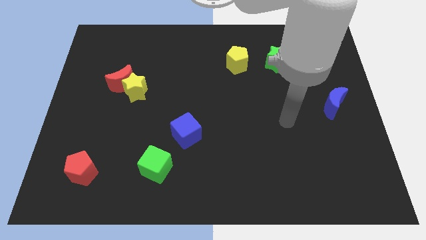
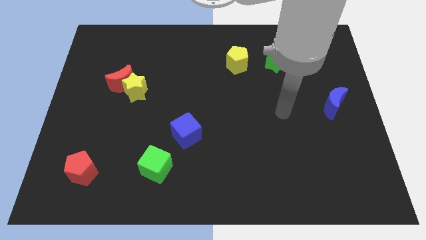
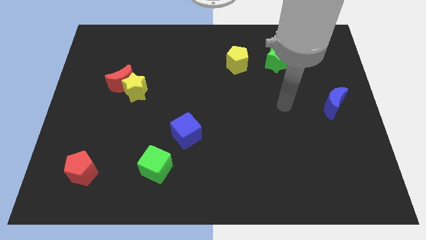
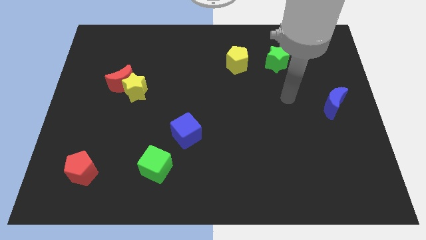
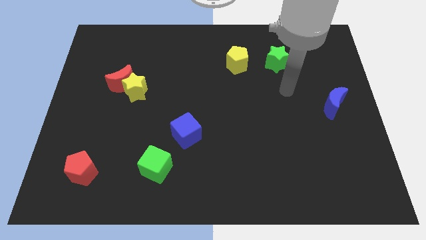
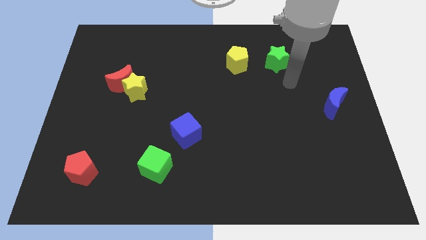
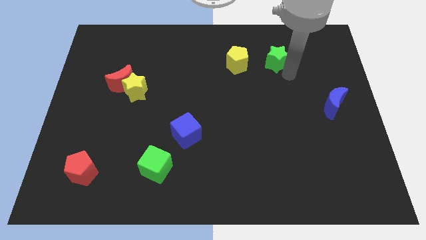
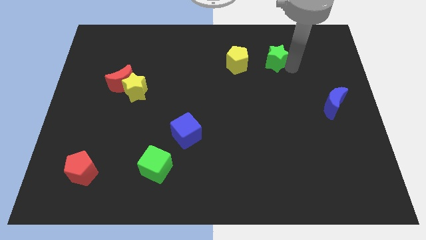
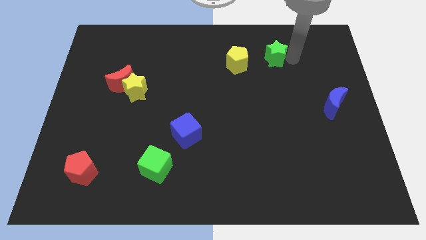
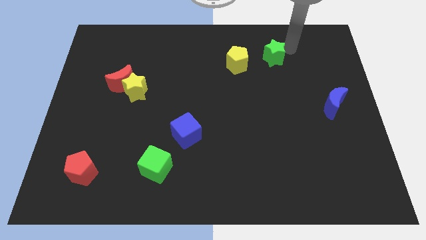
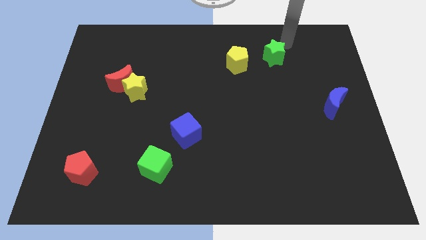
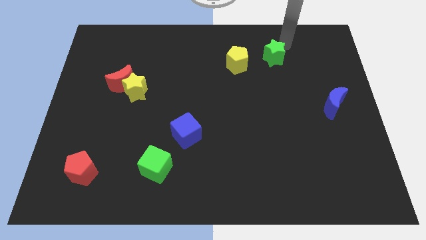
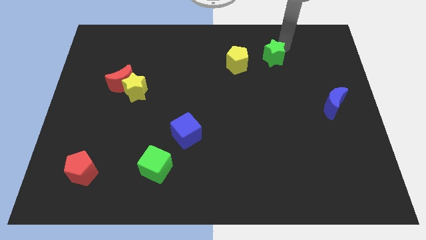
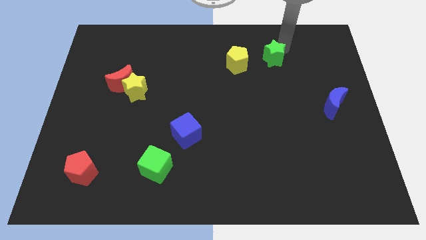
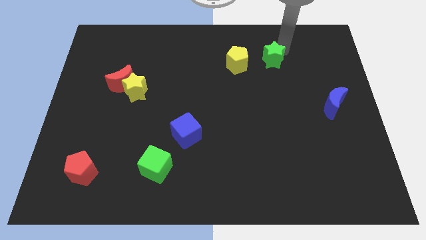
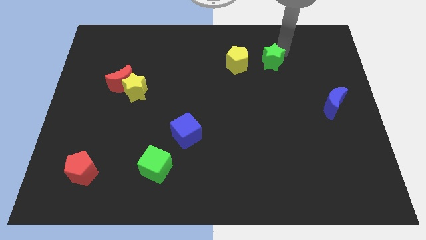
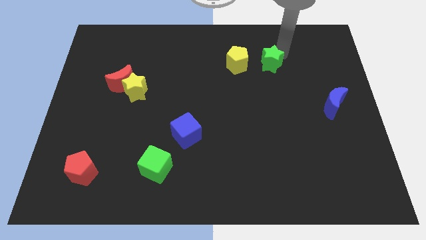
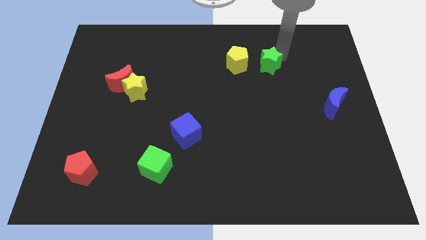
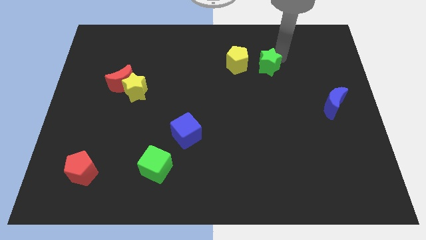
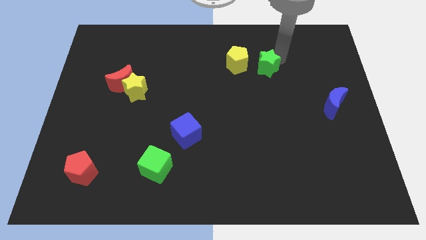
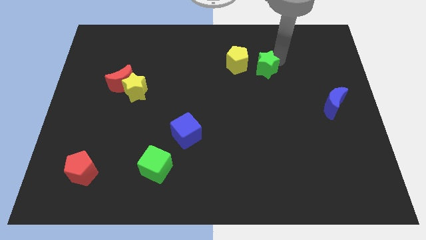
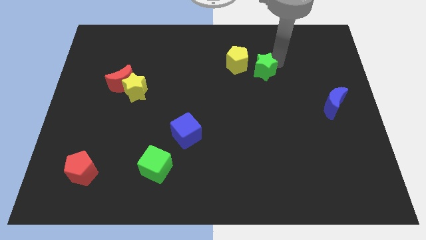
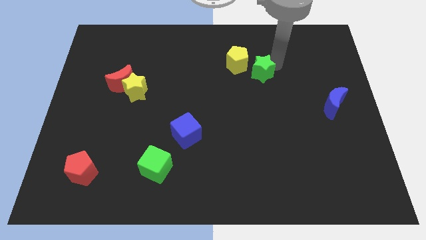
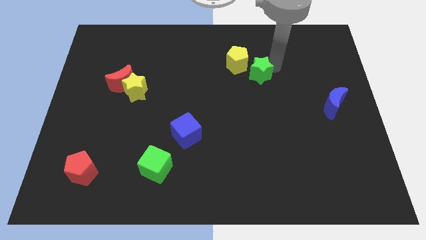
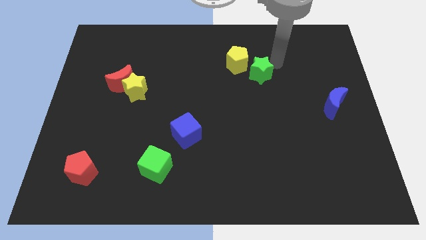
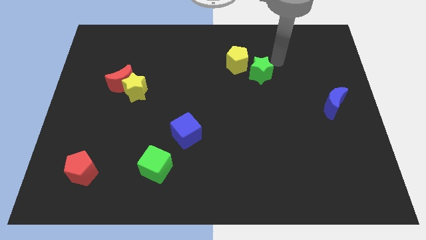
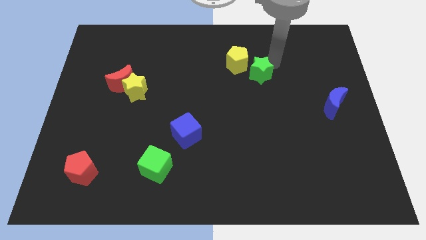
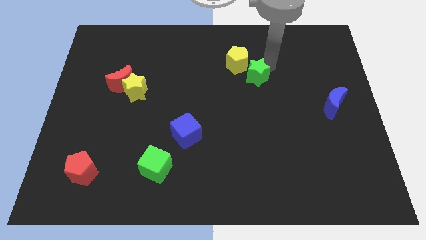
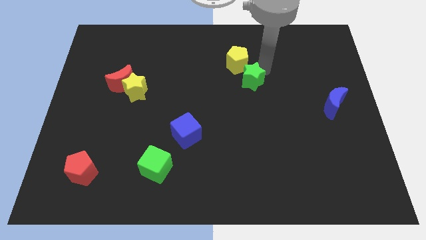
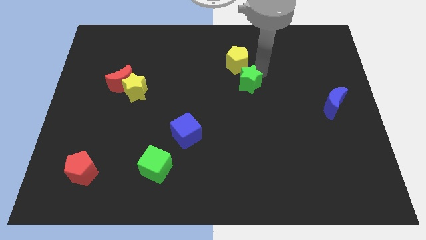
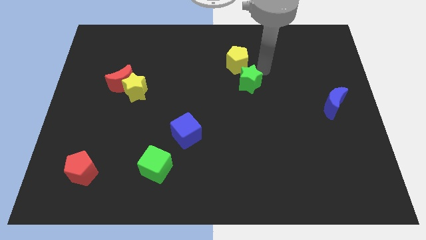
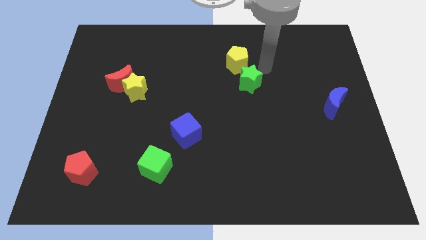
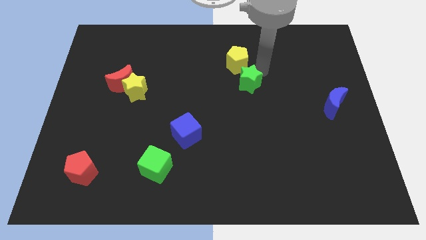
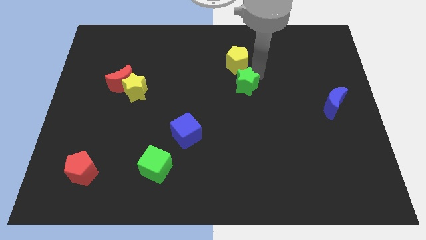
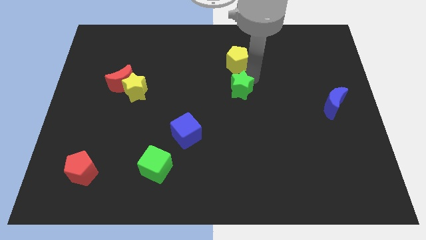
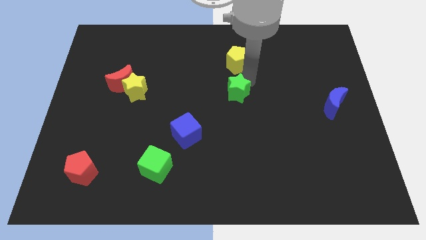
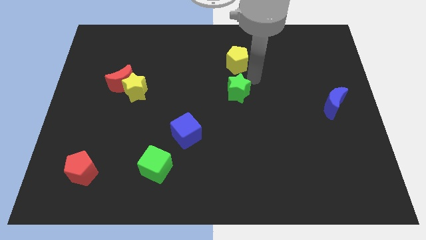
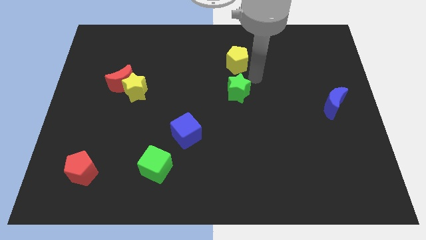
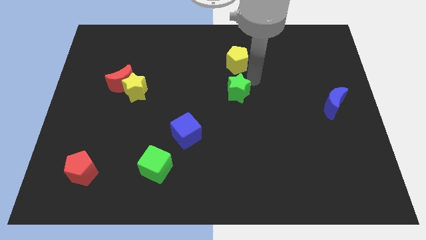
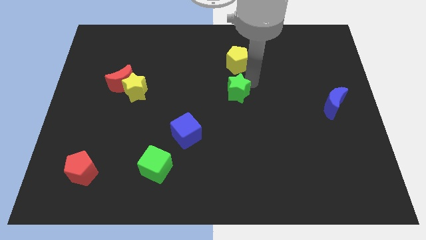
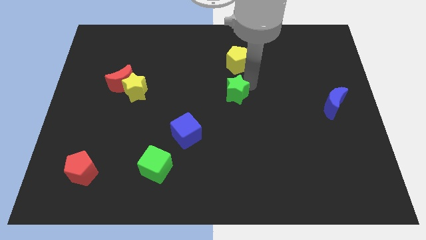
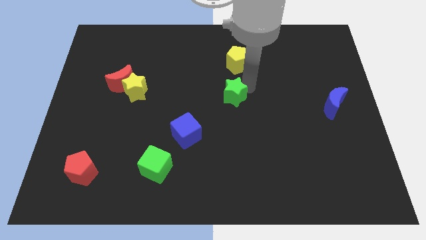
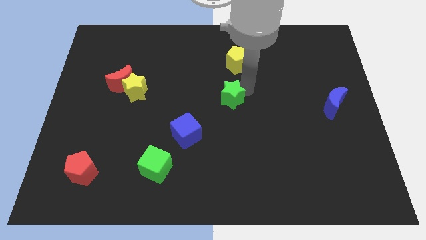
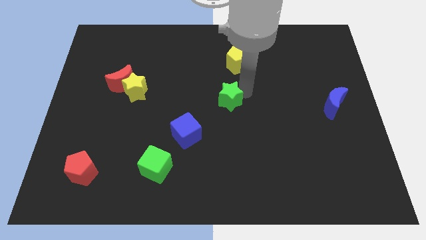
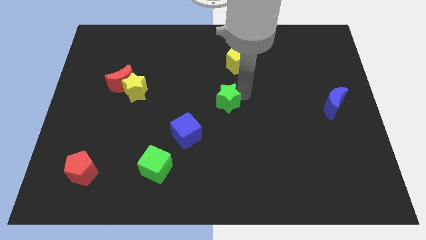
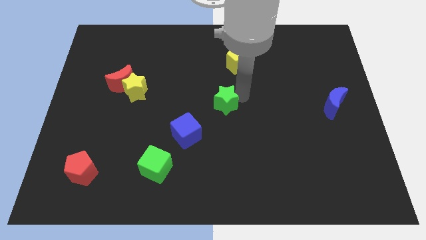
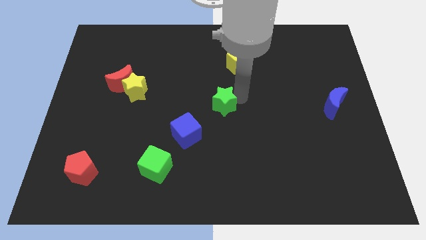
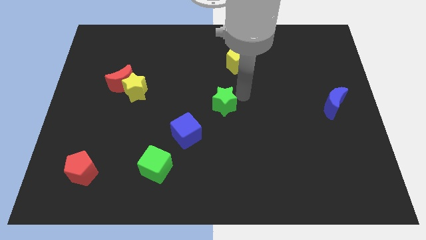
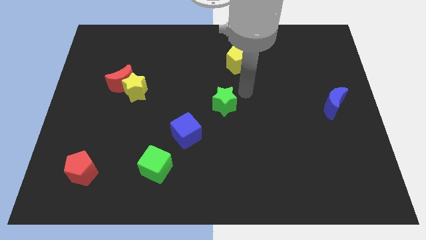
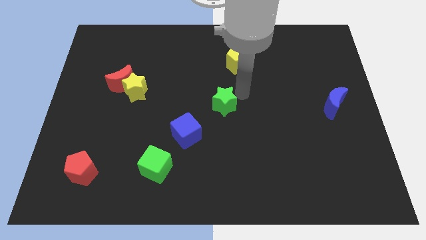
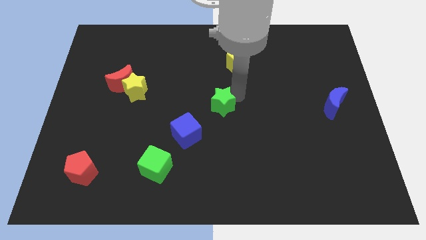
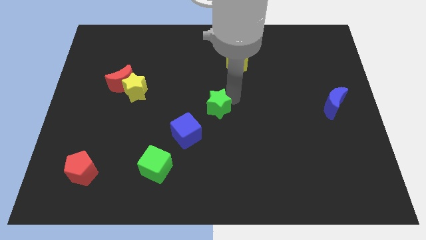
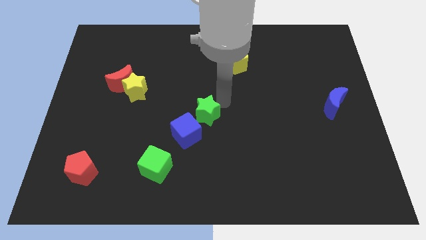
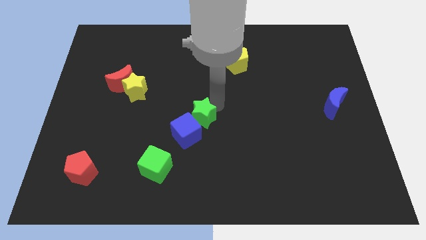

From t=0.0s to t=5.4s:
push the green star next to the blue cube

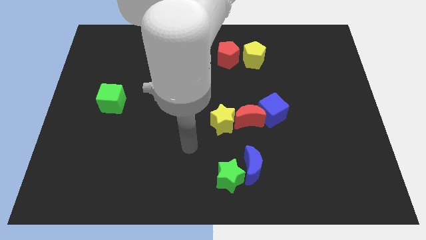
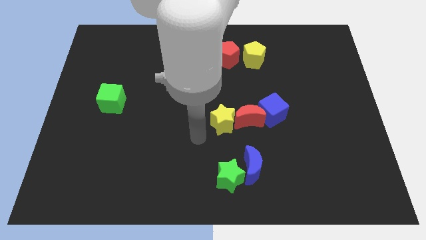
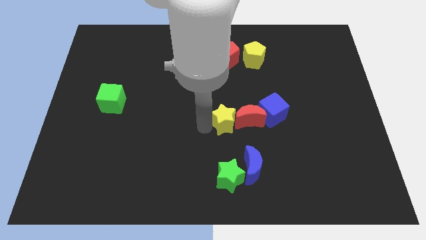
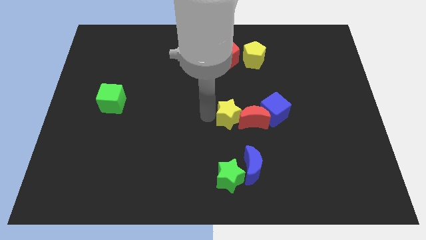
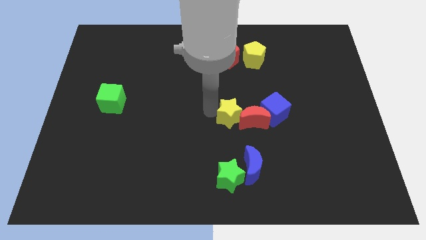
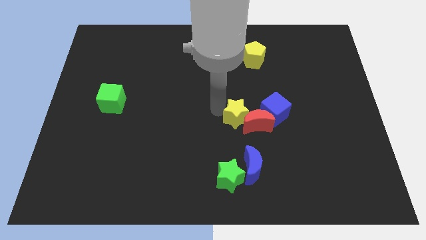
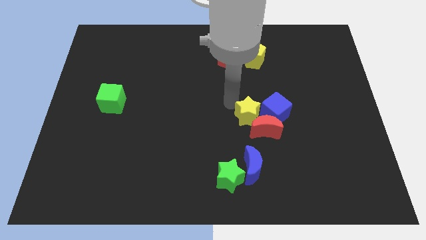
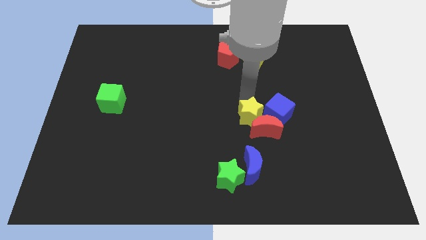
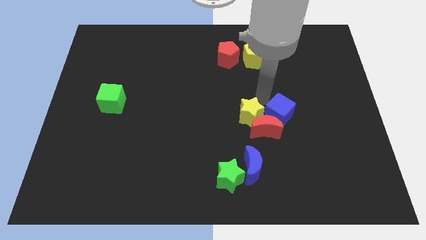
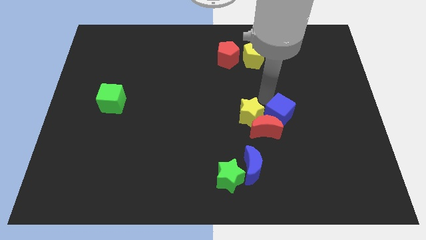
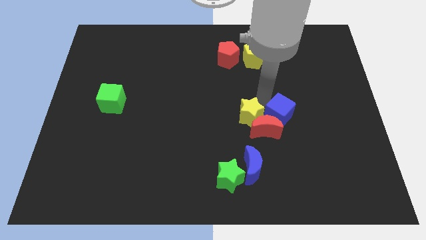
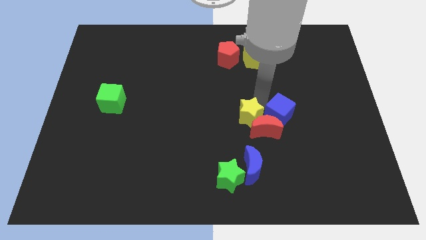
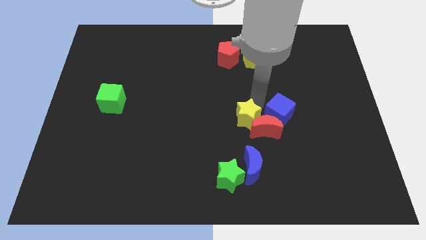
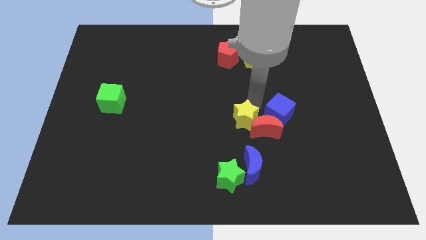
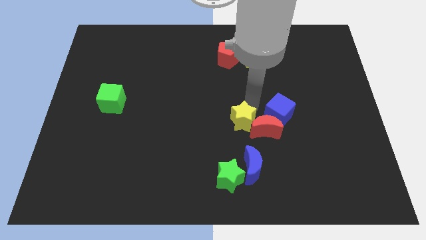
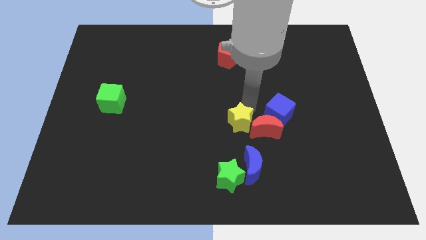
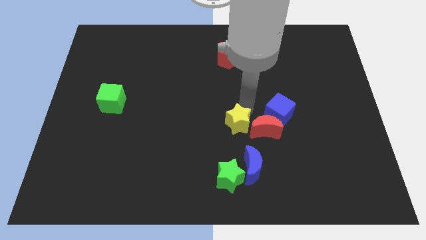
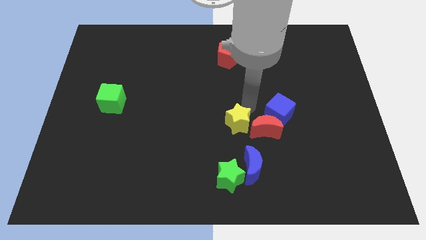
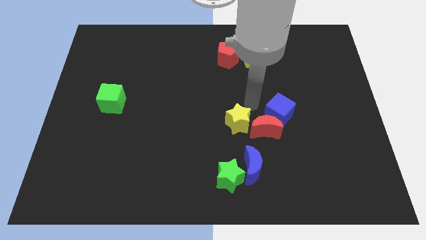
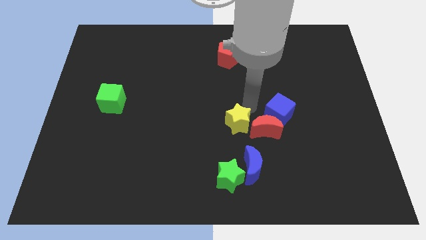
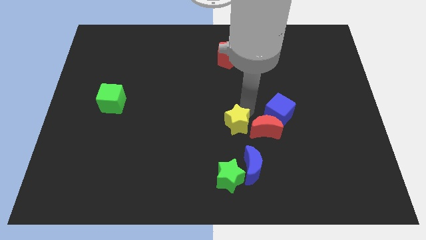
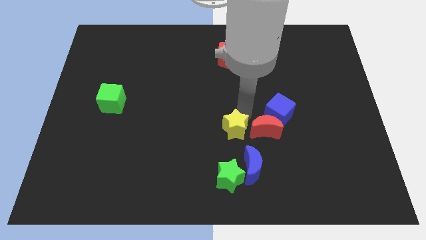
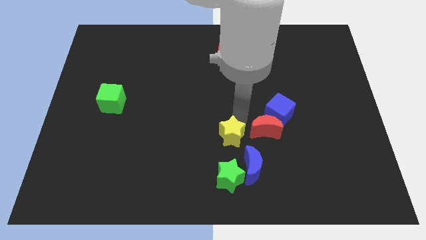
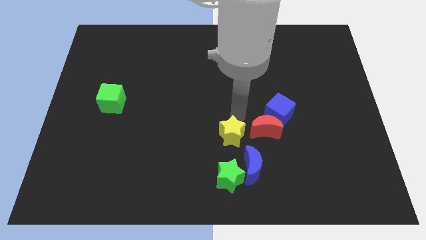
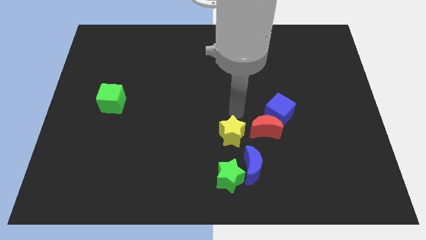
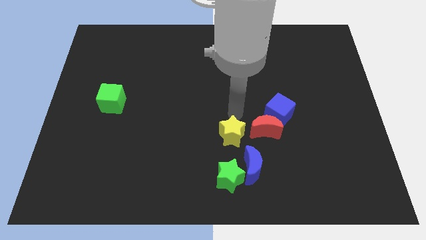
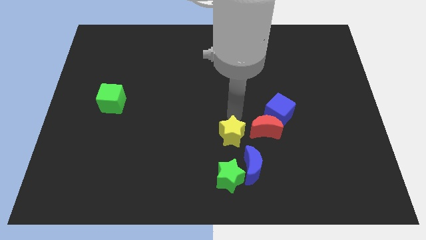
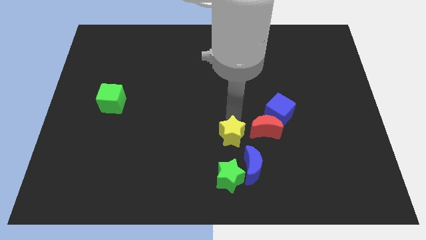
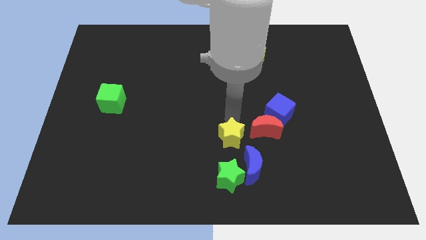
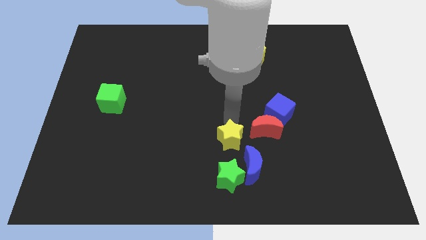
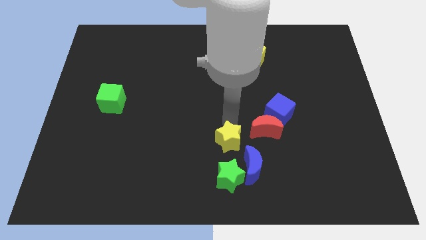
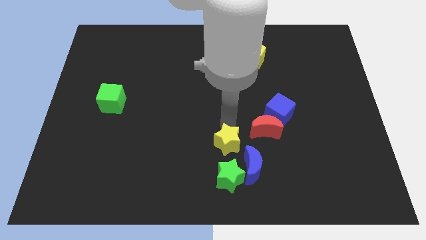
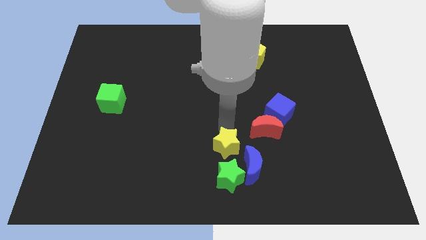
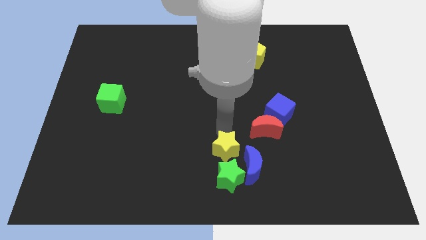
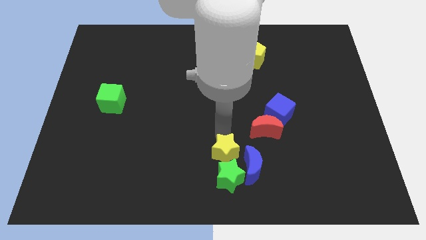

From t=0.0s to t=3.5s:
move the yellow star to the green star
